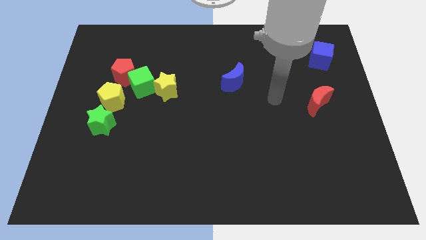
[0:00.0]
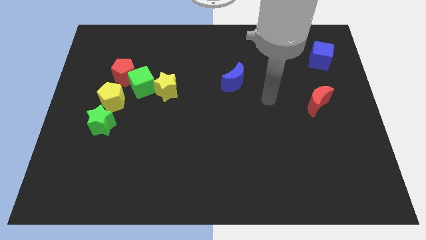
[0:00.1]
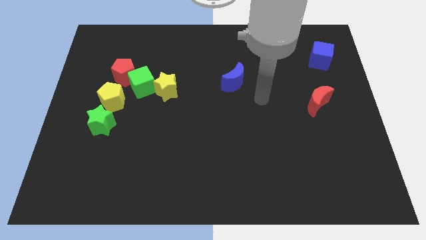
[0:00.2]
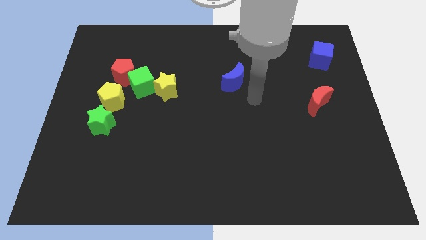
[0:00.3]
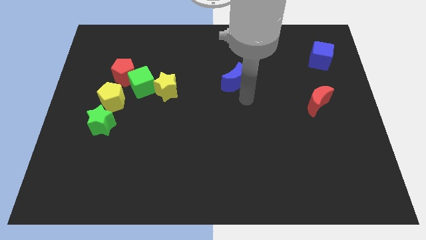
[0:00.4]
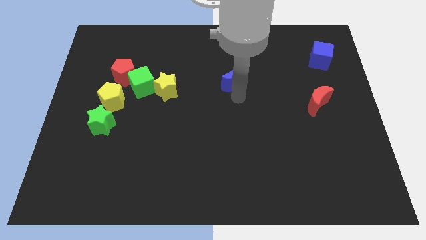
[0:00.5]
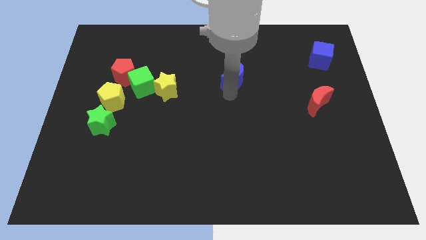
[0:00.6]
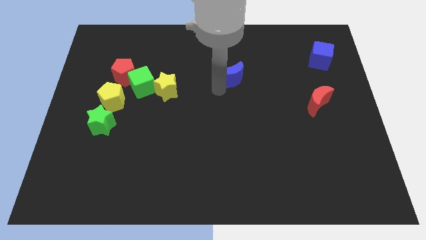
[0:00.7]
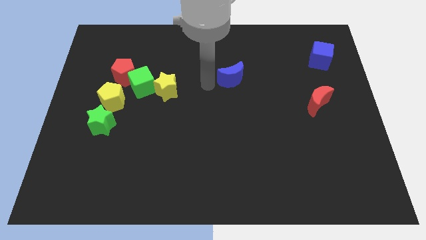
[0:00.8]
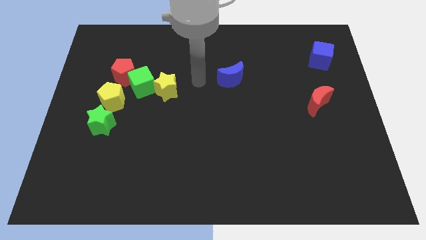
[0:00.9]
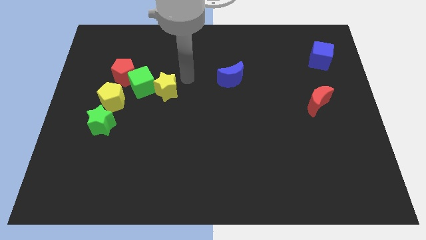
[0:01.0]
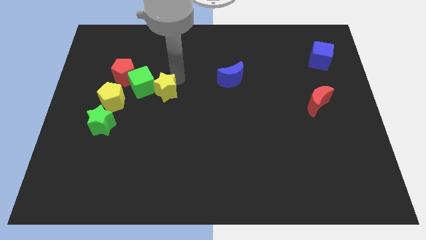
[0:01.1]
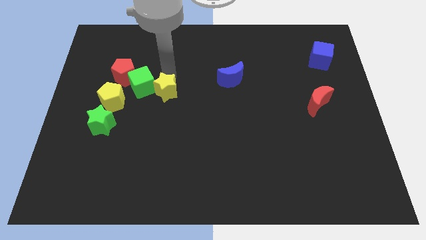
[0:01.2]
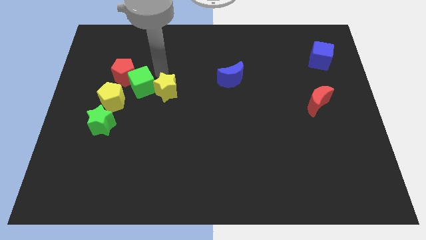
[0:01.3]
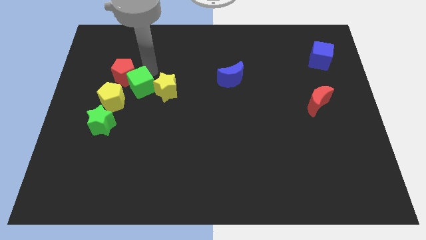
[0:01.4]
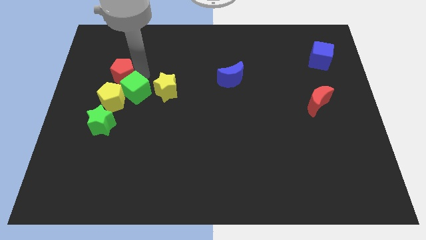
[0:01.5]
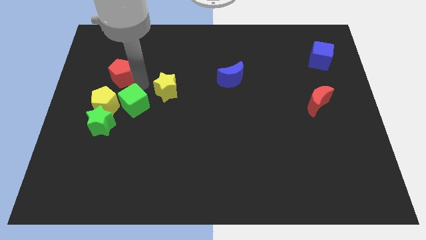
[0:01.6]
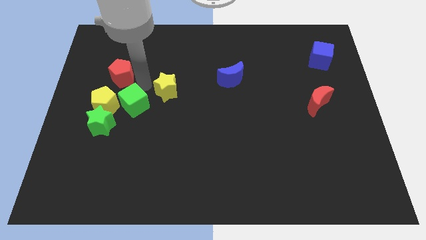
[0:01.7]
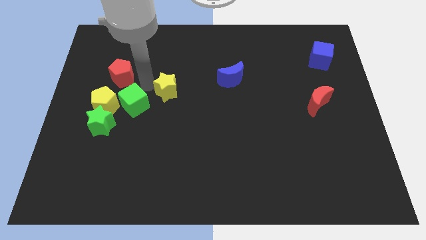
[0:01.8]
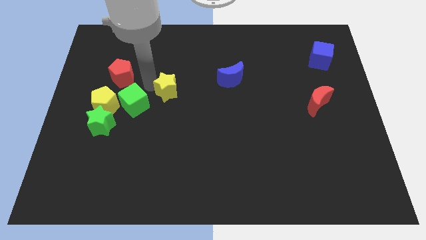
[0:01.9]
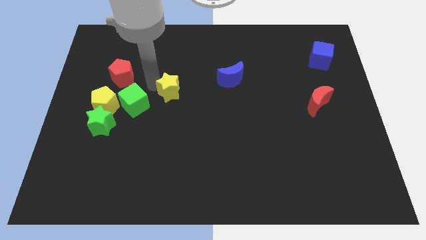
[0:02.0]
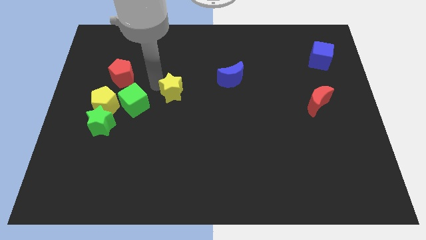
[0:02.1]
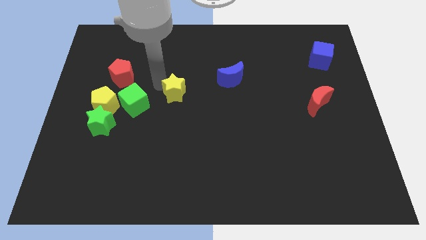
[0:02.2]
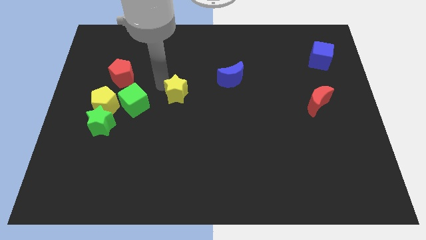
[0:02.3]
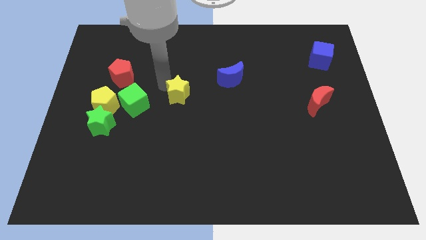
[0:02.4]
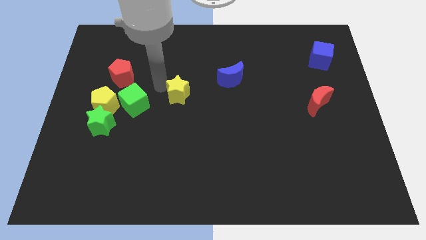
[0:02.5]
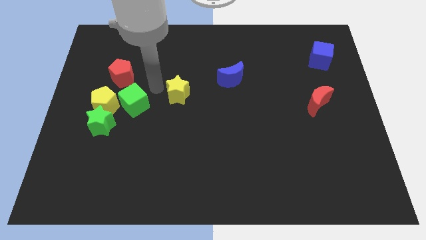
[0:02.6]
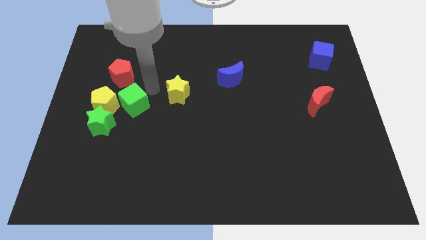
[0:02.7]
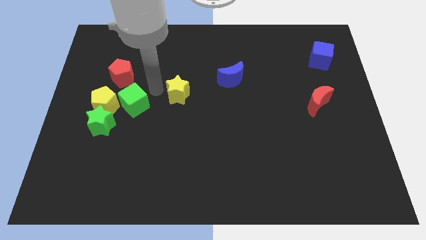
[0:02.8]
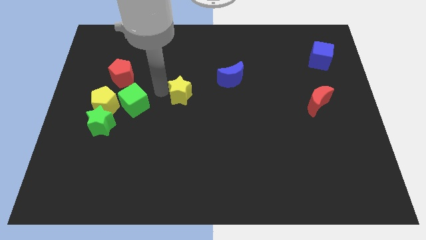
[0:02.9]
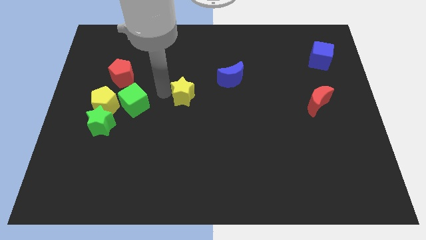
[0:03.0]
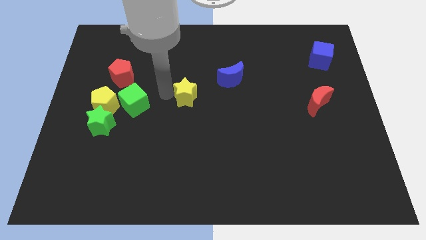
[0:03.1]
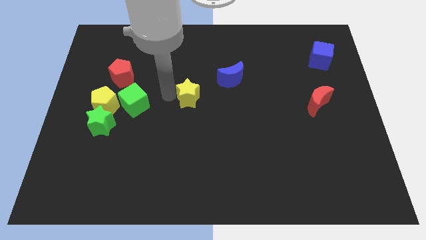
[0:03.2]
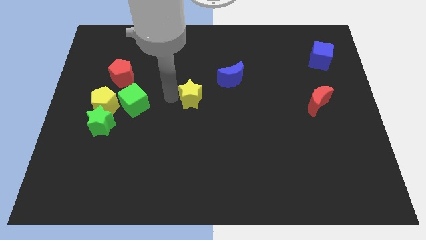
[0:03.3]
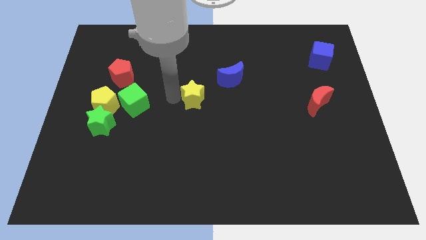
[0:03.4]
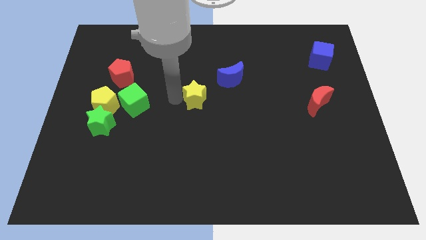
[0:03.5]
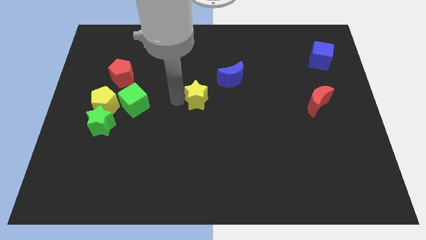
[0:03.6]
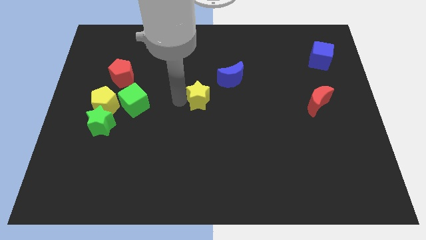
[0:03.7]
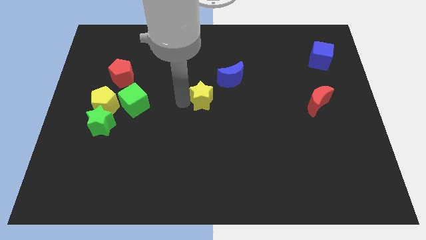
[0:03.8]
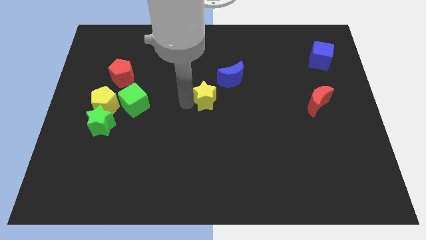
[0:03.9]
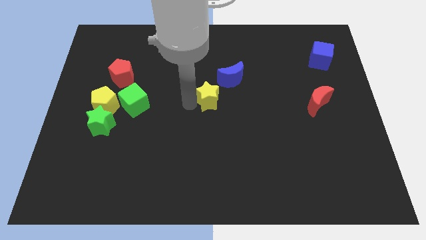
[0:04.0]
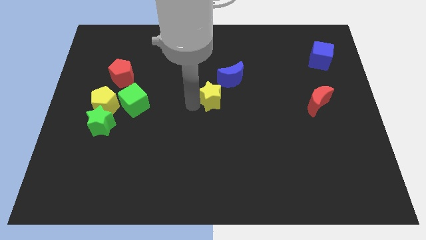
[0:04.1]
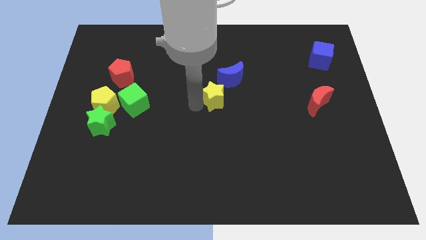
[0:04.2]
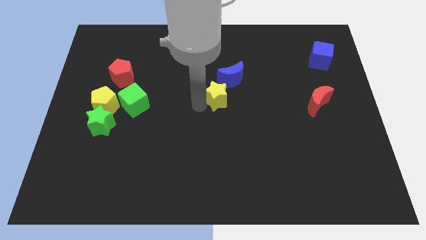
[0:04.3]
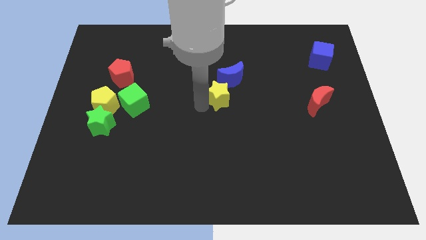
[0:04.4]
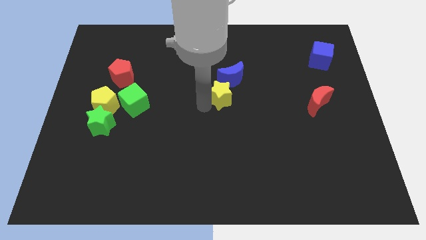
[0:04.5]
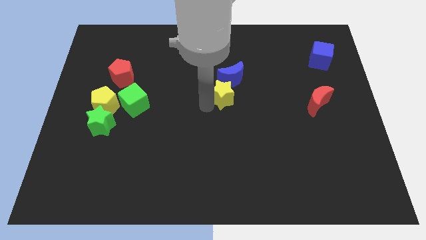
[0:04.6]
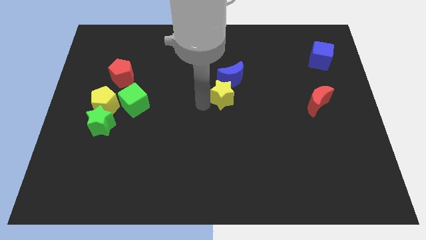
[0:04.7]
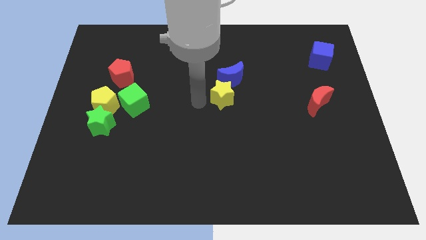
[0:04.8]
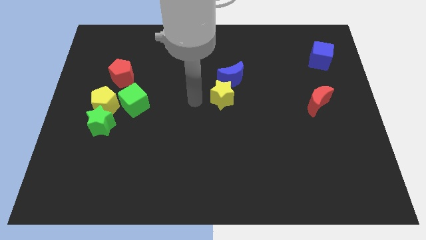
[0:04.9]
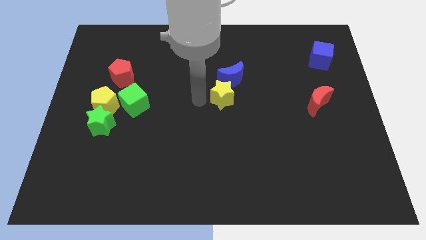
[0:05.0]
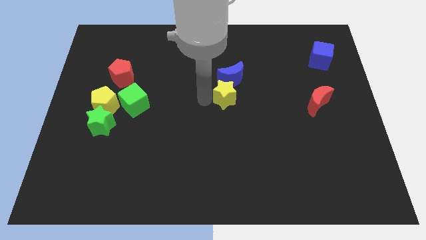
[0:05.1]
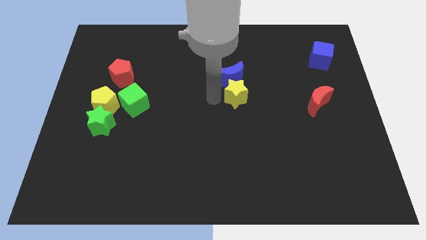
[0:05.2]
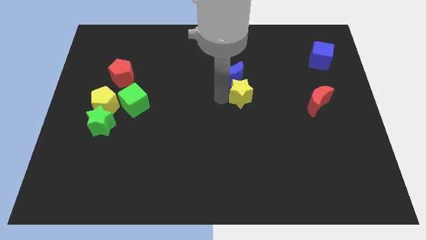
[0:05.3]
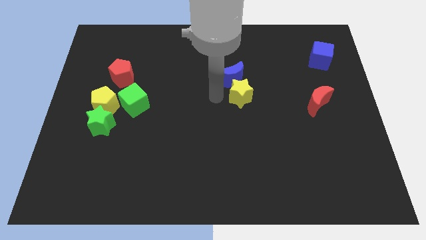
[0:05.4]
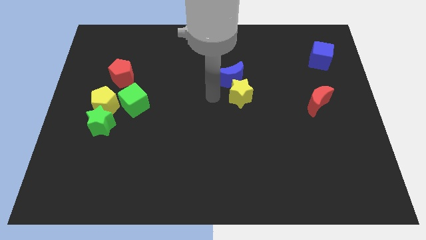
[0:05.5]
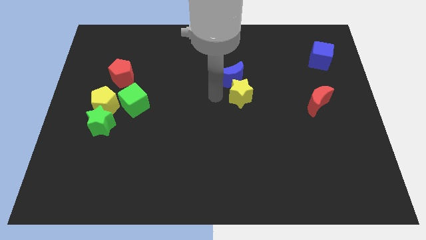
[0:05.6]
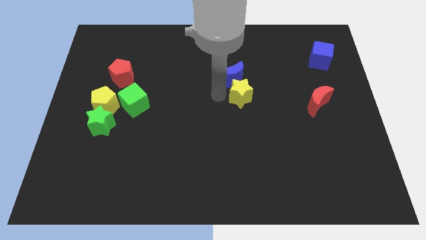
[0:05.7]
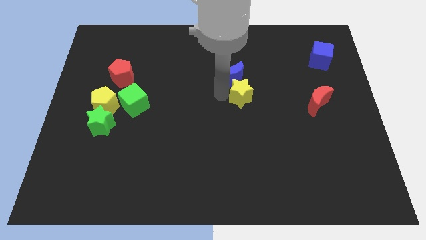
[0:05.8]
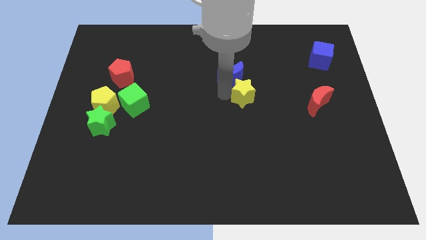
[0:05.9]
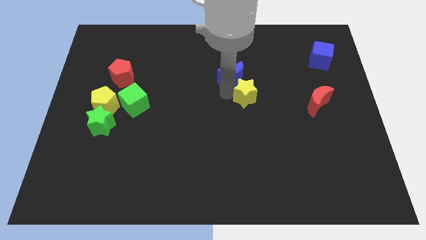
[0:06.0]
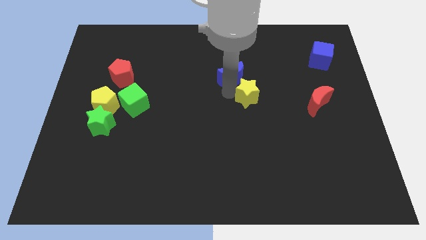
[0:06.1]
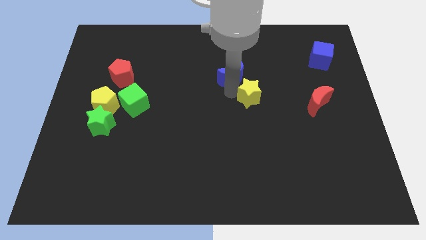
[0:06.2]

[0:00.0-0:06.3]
slide the yellow star right

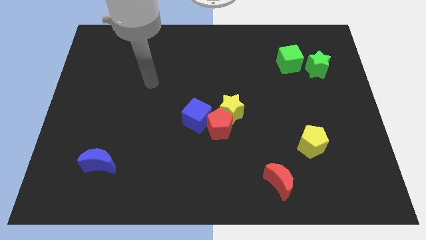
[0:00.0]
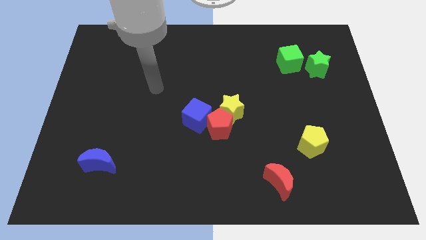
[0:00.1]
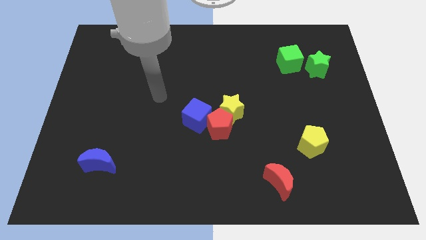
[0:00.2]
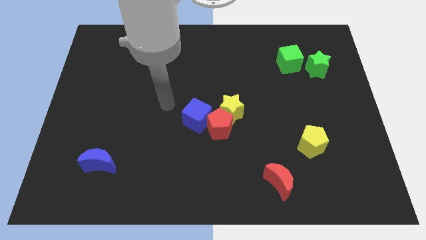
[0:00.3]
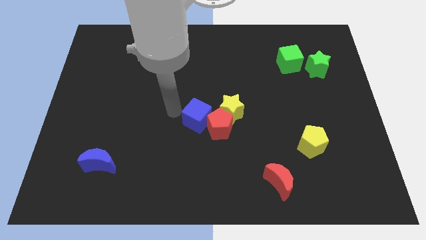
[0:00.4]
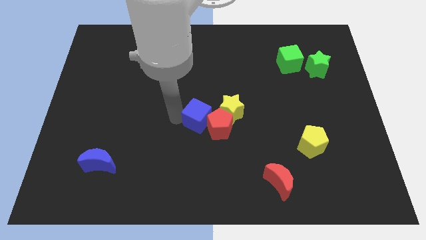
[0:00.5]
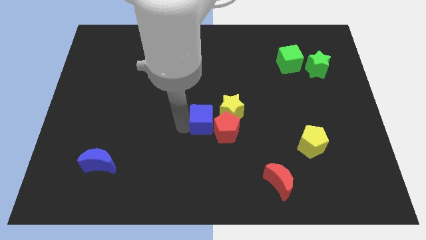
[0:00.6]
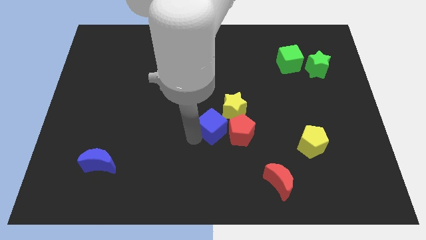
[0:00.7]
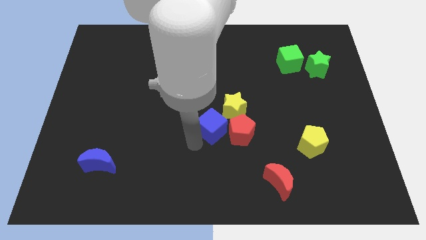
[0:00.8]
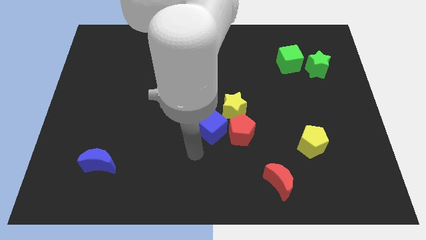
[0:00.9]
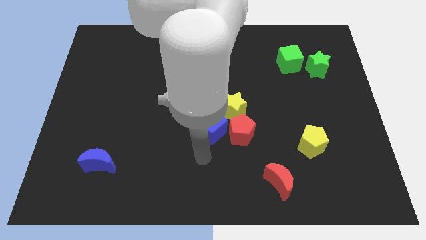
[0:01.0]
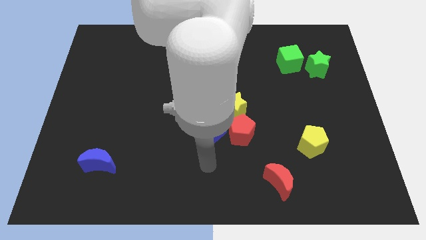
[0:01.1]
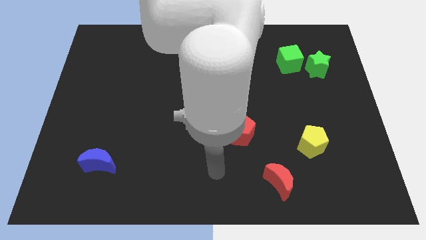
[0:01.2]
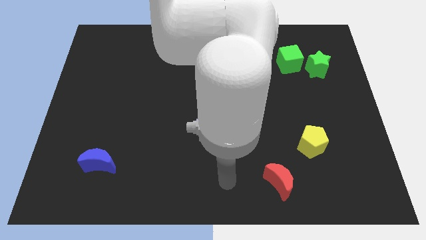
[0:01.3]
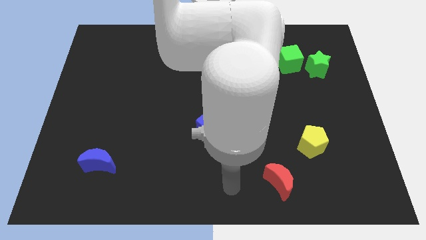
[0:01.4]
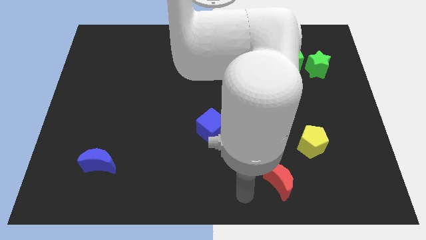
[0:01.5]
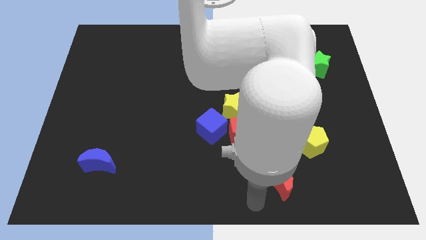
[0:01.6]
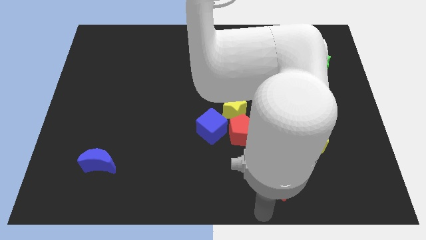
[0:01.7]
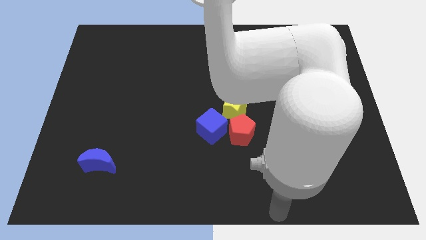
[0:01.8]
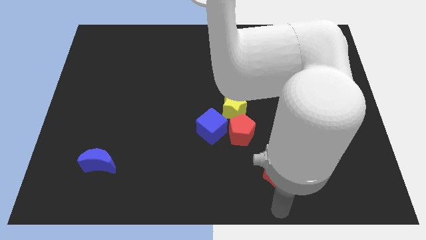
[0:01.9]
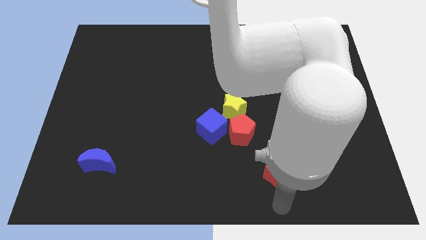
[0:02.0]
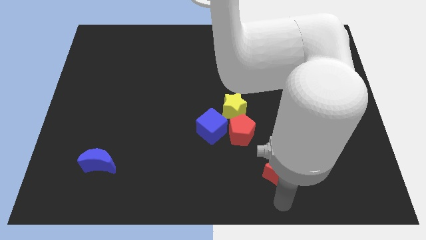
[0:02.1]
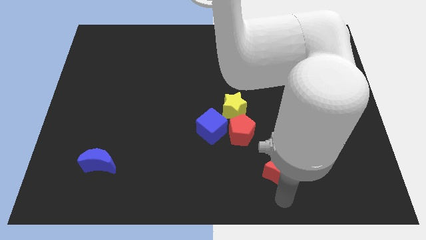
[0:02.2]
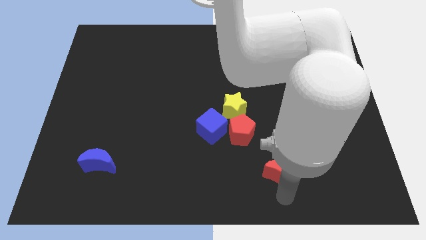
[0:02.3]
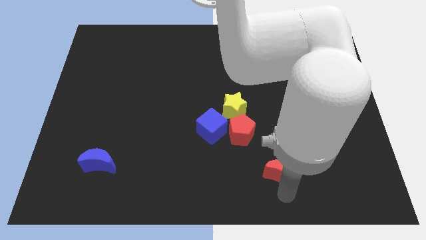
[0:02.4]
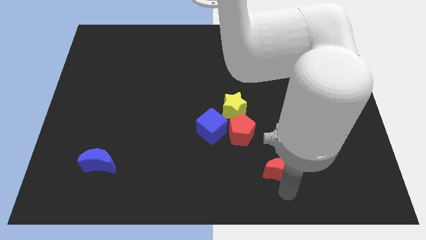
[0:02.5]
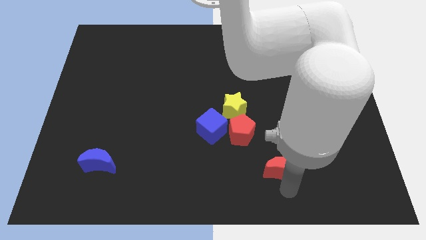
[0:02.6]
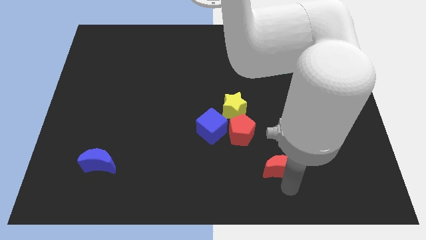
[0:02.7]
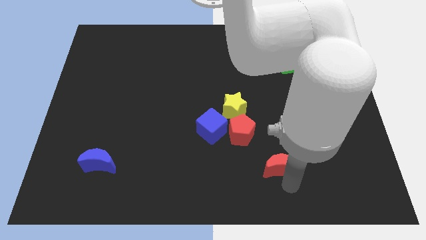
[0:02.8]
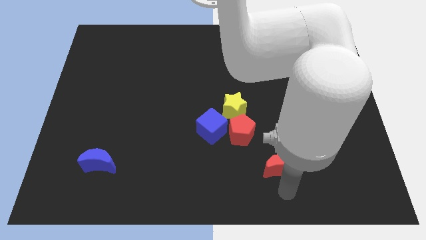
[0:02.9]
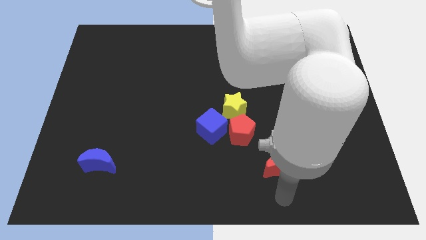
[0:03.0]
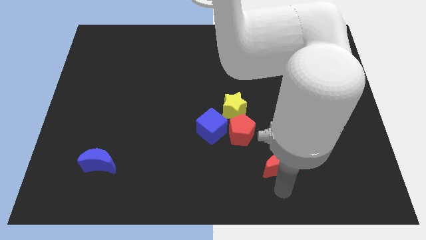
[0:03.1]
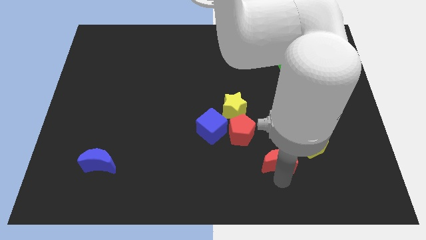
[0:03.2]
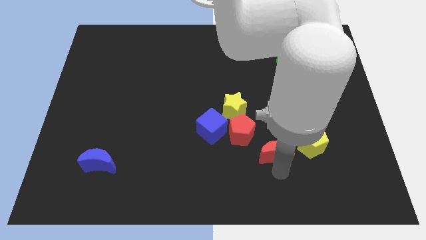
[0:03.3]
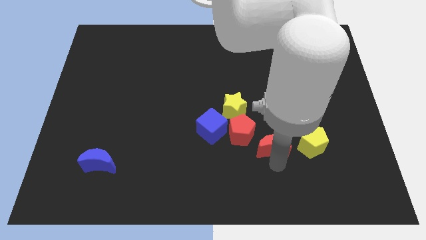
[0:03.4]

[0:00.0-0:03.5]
slide the red moon up somewhat
